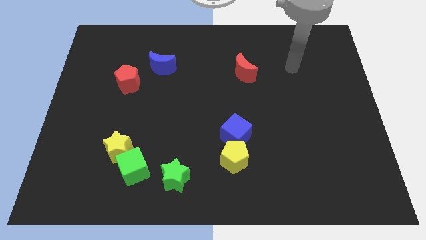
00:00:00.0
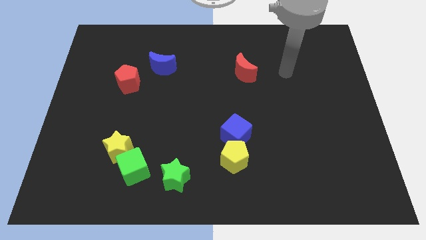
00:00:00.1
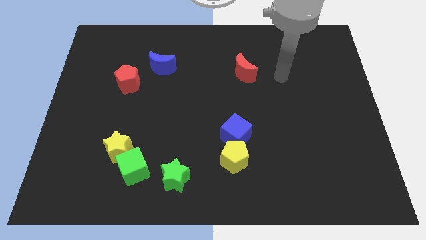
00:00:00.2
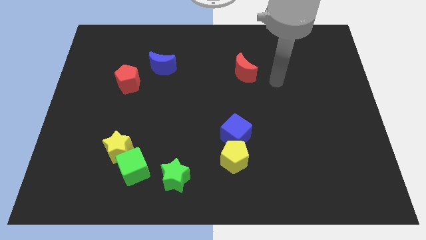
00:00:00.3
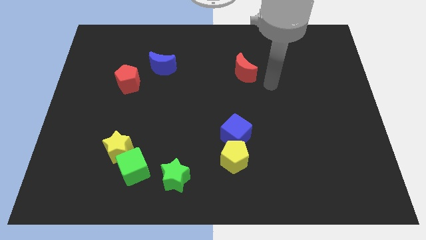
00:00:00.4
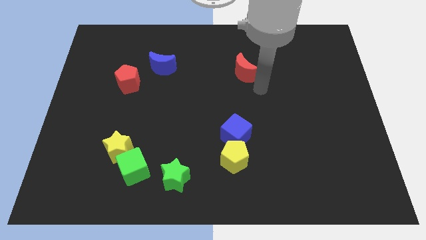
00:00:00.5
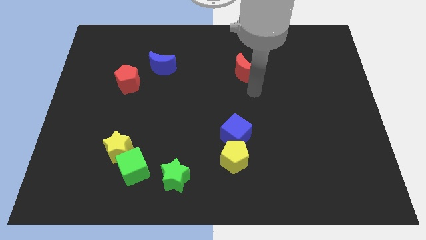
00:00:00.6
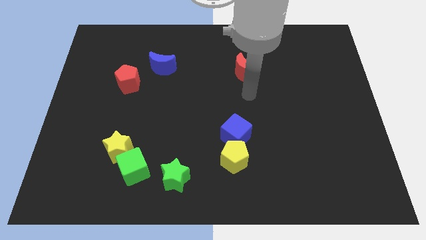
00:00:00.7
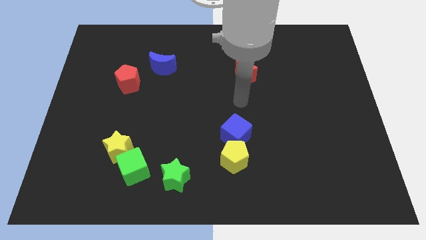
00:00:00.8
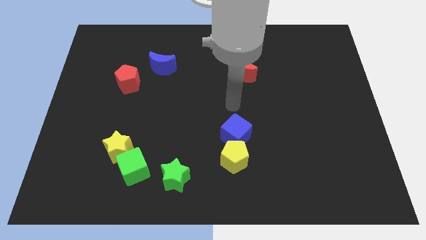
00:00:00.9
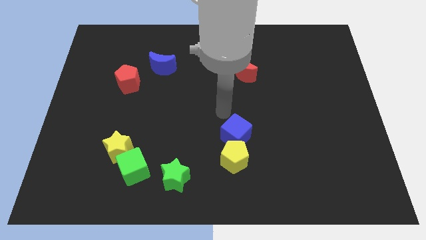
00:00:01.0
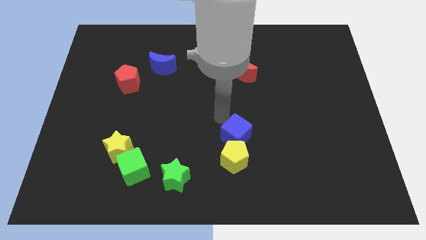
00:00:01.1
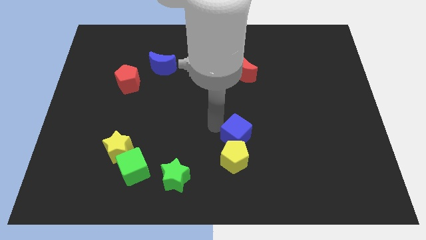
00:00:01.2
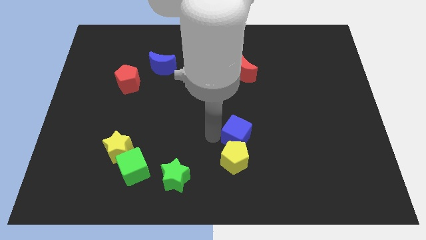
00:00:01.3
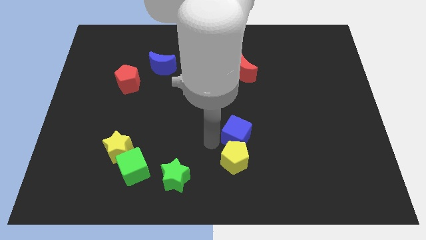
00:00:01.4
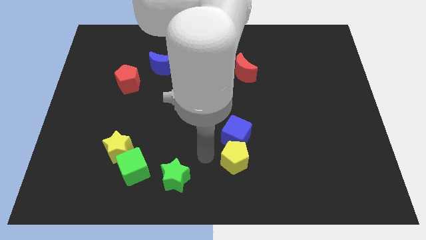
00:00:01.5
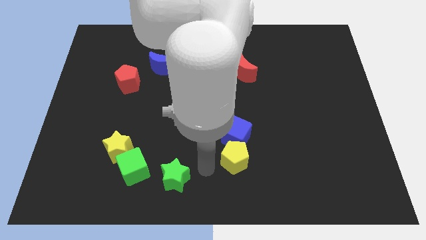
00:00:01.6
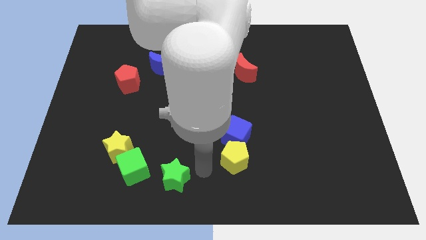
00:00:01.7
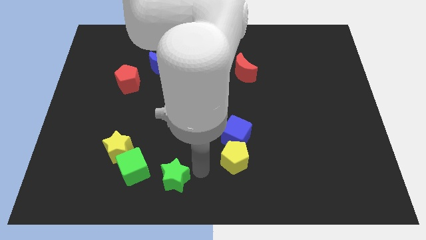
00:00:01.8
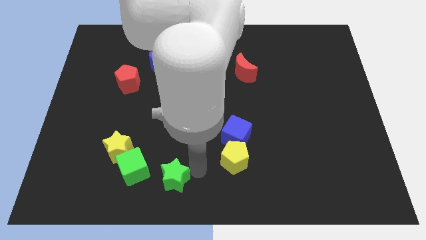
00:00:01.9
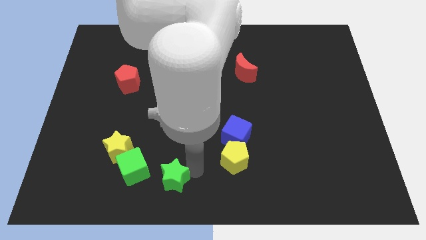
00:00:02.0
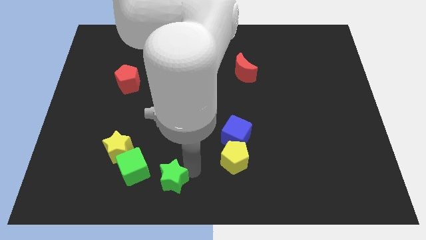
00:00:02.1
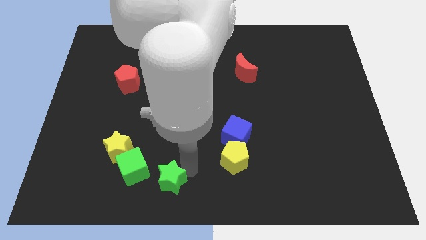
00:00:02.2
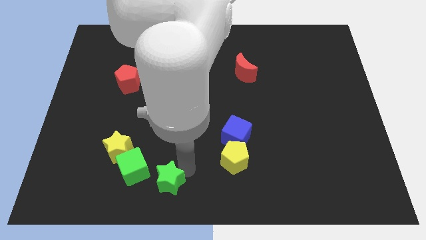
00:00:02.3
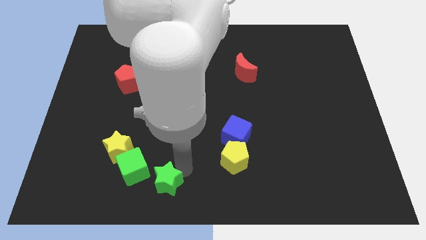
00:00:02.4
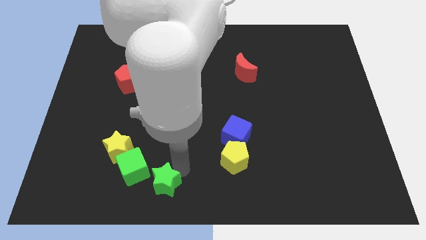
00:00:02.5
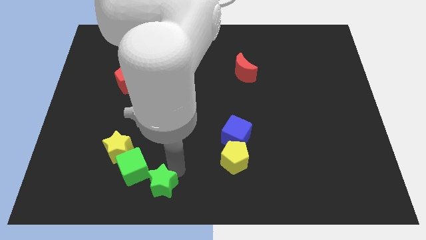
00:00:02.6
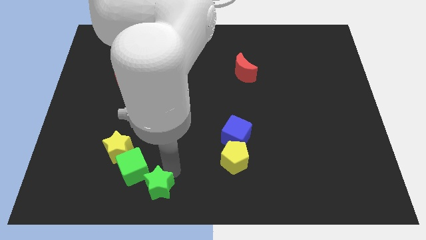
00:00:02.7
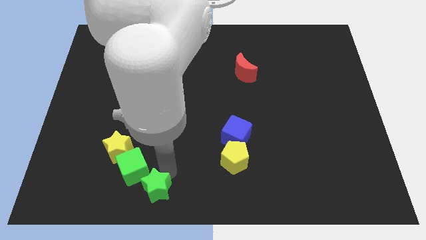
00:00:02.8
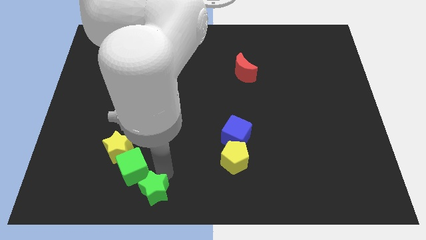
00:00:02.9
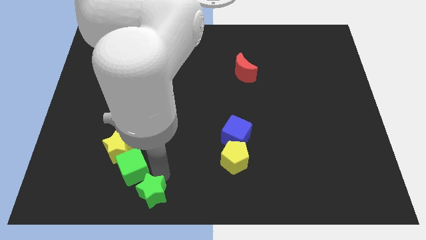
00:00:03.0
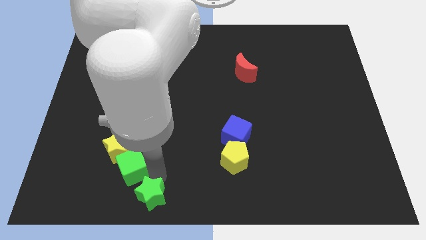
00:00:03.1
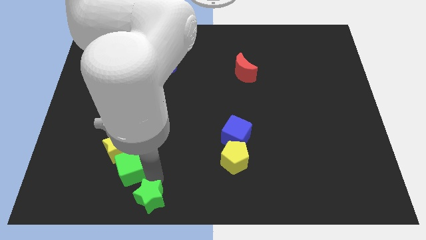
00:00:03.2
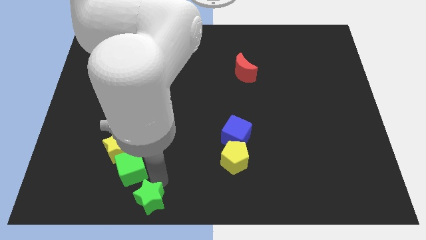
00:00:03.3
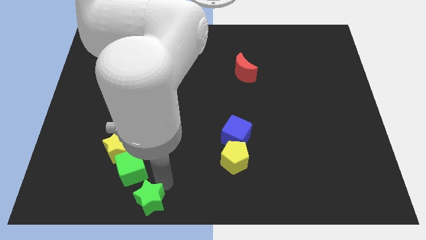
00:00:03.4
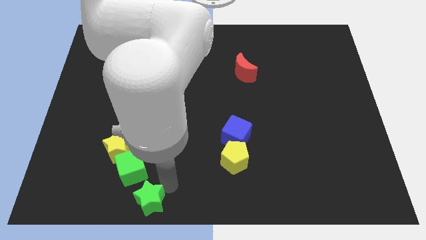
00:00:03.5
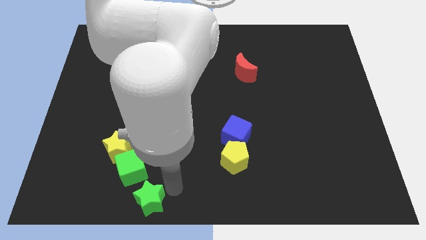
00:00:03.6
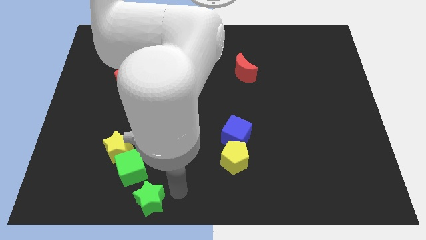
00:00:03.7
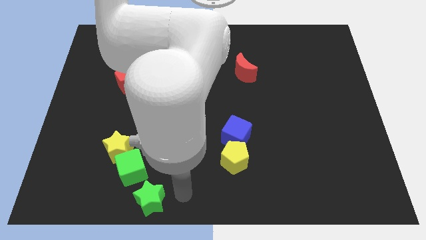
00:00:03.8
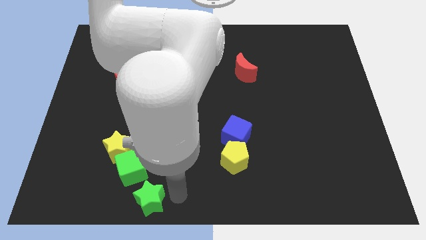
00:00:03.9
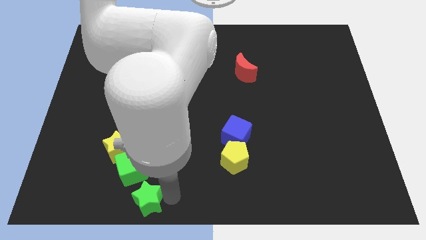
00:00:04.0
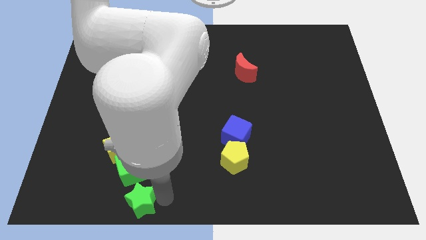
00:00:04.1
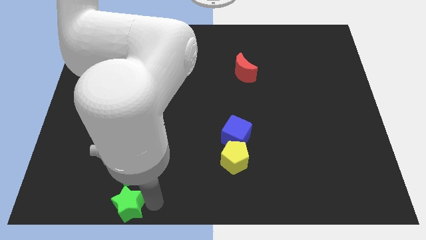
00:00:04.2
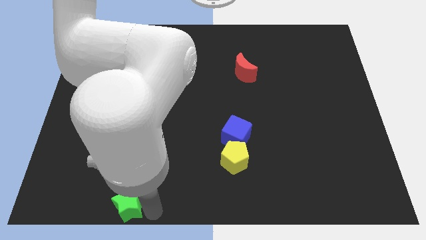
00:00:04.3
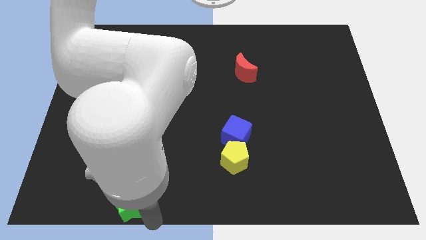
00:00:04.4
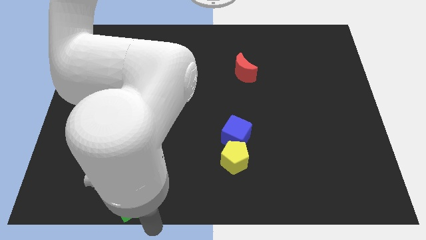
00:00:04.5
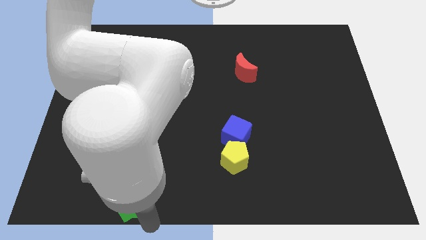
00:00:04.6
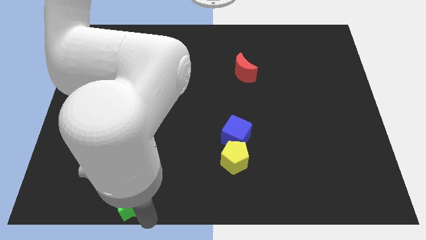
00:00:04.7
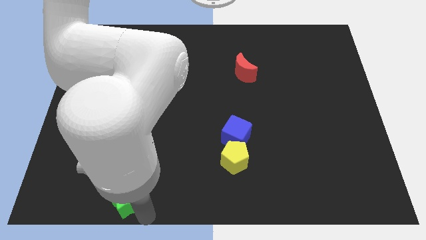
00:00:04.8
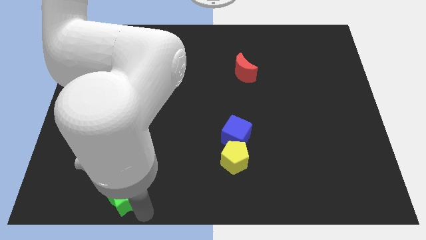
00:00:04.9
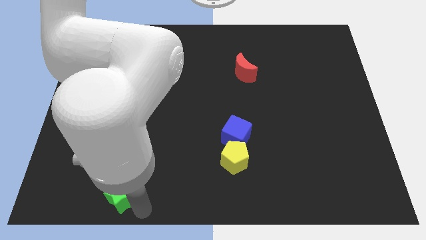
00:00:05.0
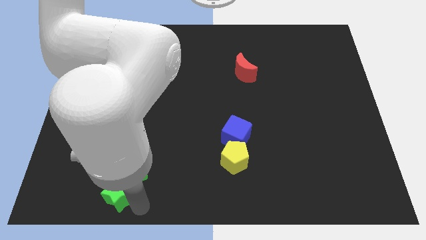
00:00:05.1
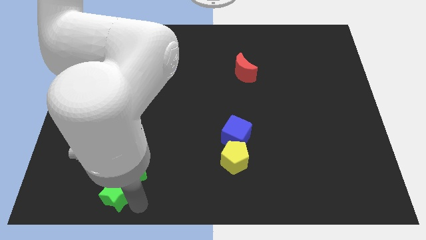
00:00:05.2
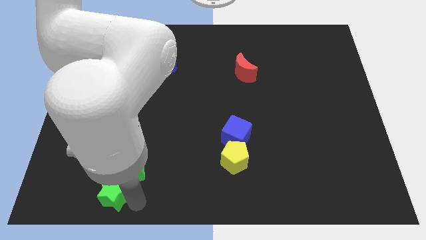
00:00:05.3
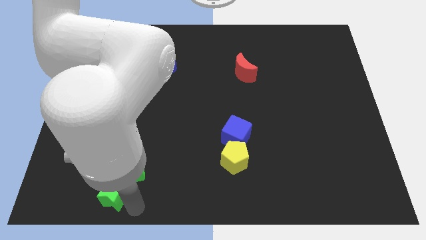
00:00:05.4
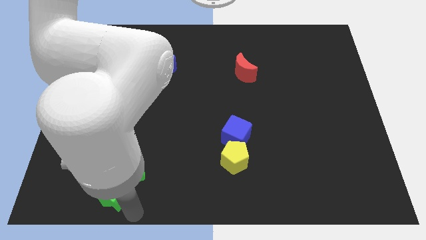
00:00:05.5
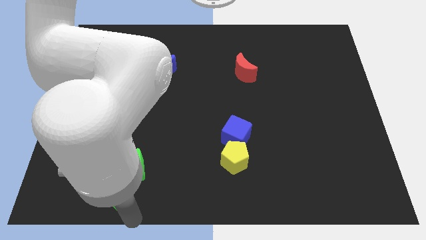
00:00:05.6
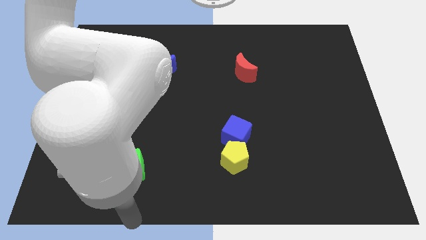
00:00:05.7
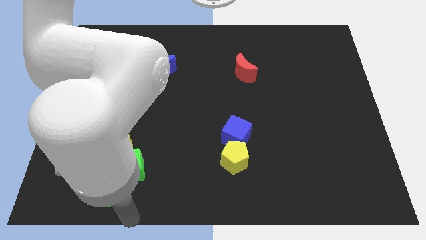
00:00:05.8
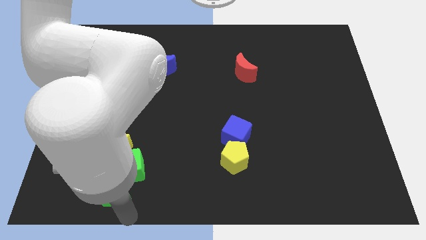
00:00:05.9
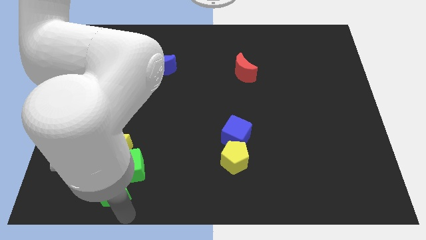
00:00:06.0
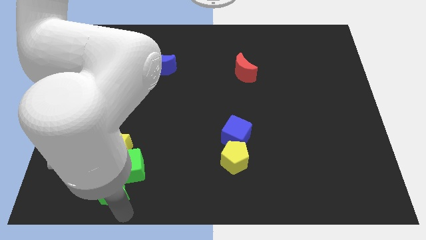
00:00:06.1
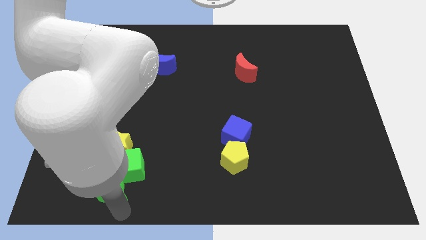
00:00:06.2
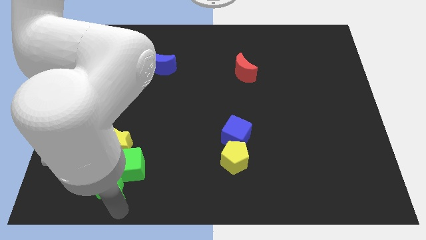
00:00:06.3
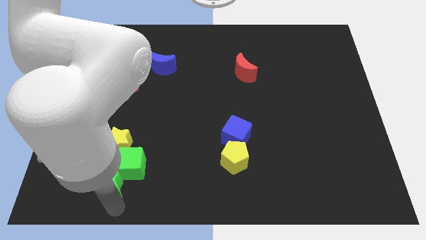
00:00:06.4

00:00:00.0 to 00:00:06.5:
slide the green star to the left side of the green cube
